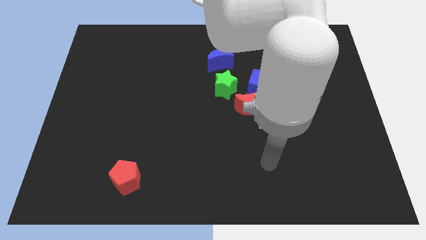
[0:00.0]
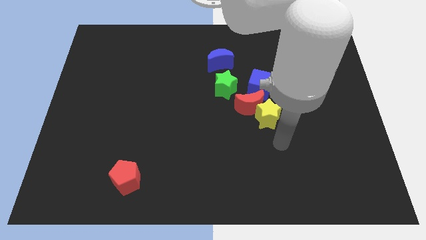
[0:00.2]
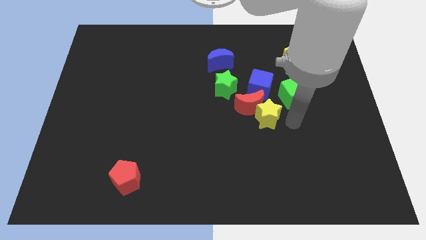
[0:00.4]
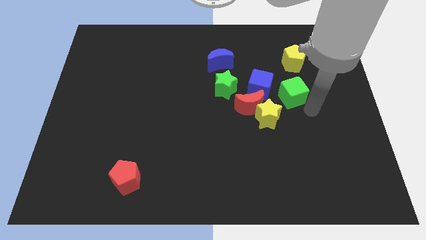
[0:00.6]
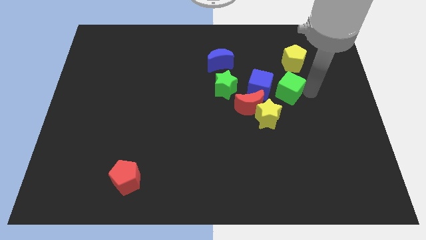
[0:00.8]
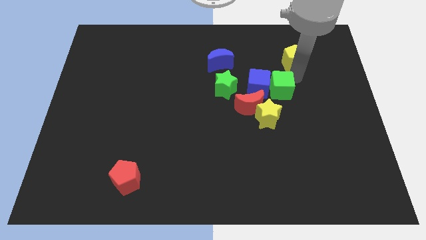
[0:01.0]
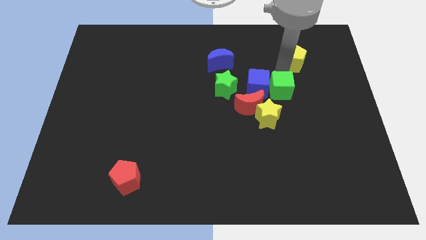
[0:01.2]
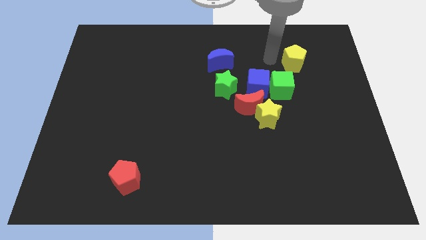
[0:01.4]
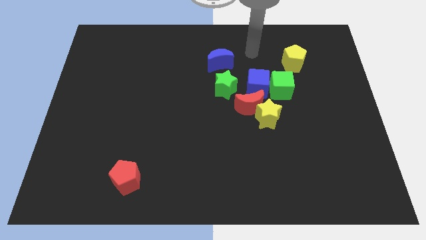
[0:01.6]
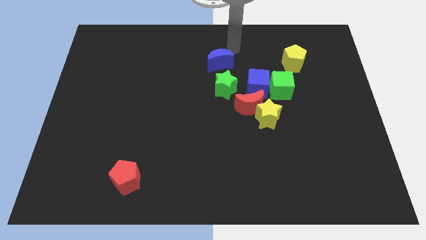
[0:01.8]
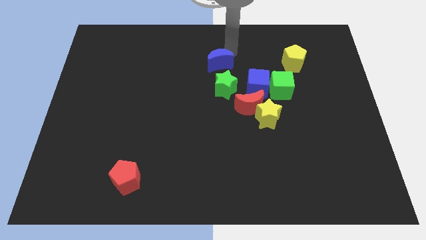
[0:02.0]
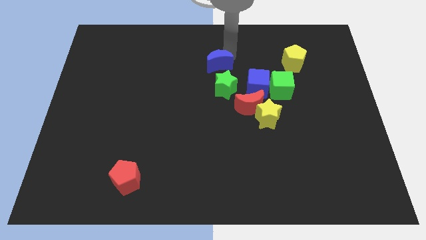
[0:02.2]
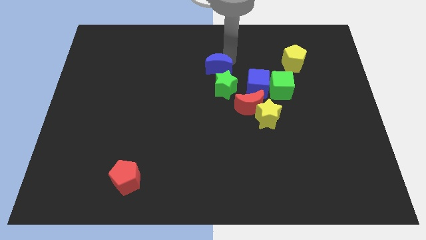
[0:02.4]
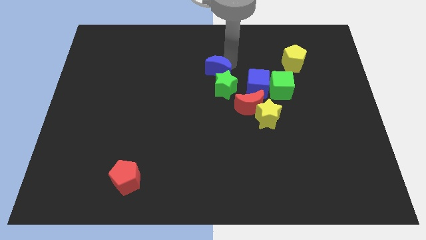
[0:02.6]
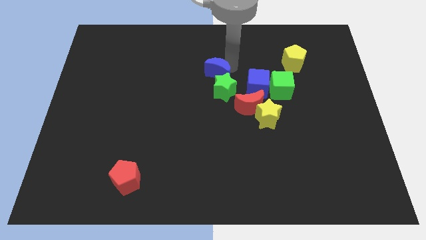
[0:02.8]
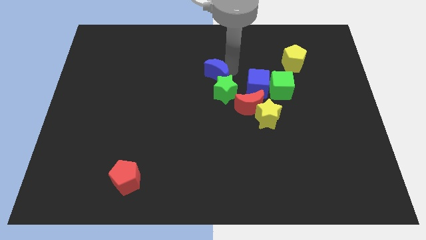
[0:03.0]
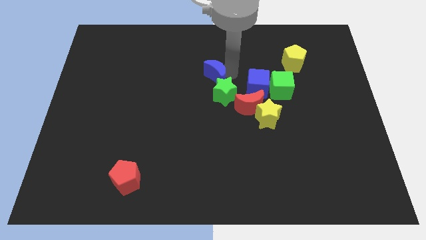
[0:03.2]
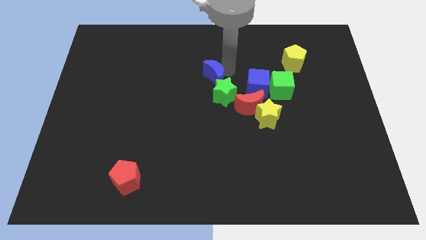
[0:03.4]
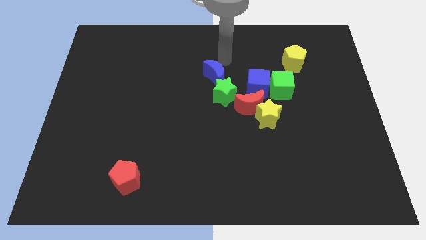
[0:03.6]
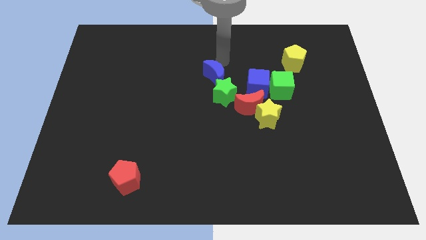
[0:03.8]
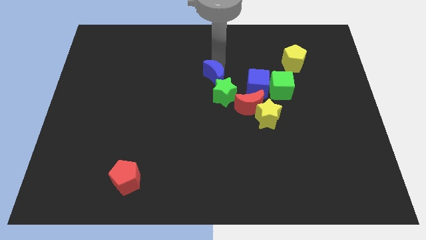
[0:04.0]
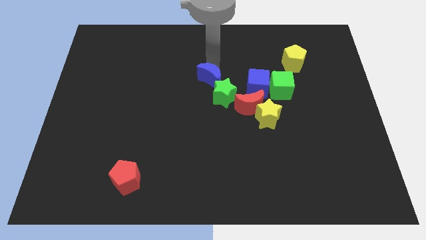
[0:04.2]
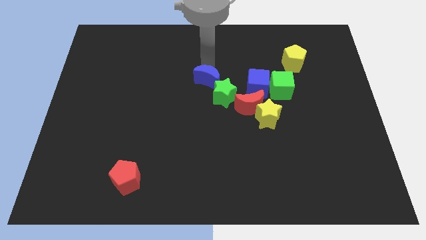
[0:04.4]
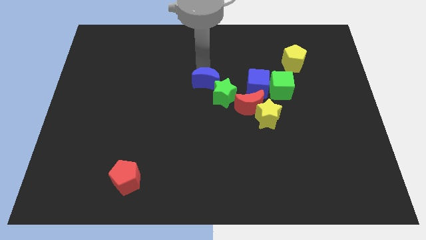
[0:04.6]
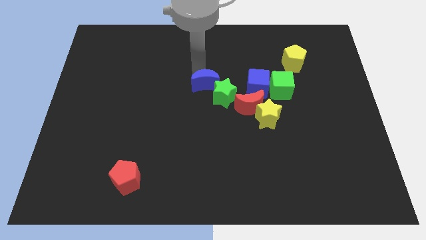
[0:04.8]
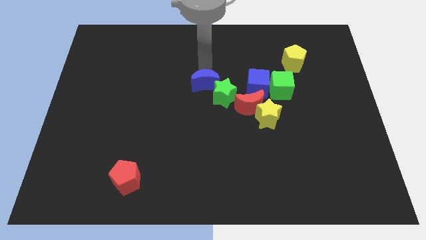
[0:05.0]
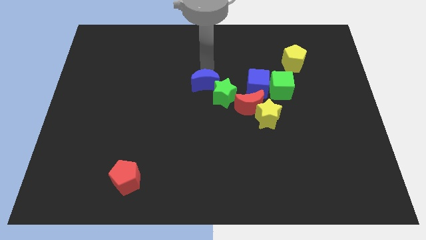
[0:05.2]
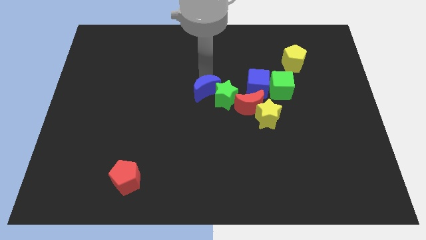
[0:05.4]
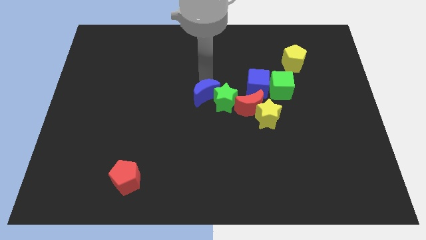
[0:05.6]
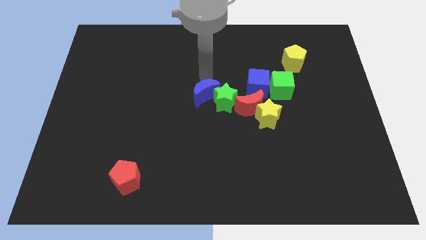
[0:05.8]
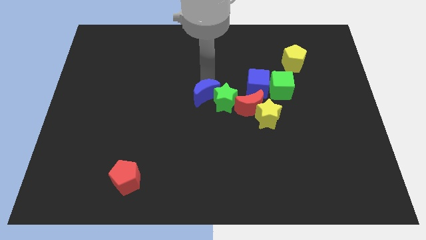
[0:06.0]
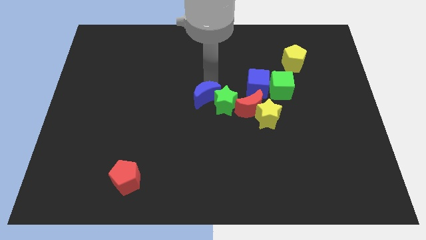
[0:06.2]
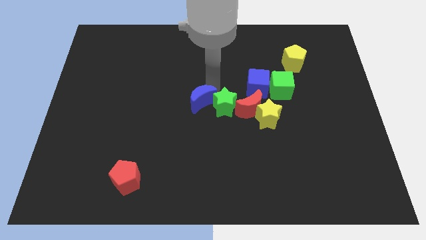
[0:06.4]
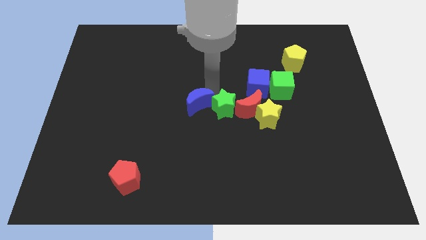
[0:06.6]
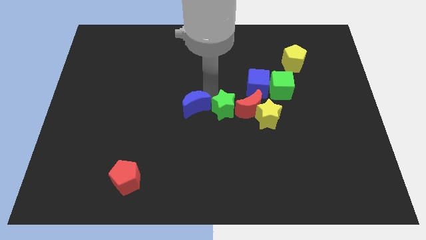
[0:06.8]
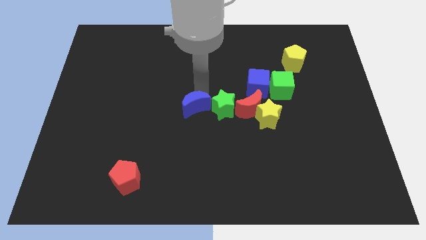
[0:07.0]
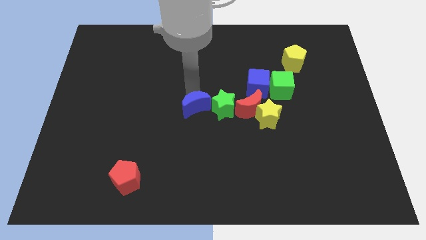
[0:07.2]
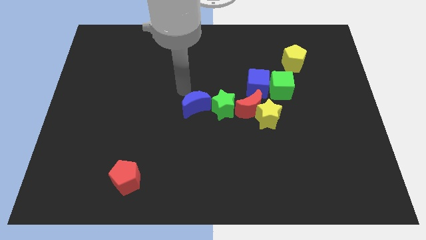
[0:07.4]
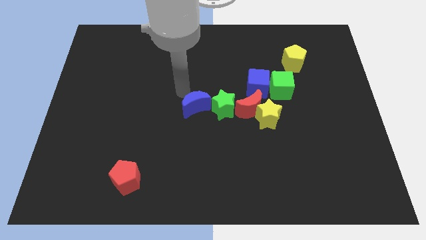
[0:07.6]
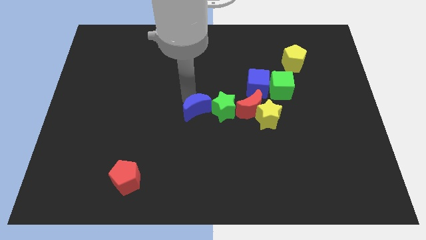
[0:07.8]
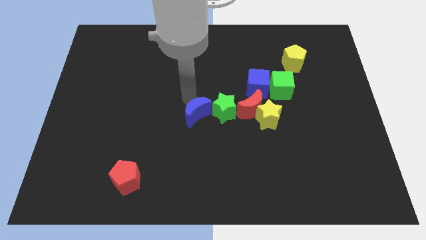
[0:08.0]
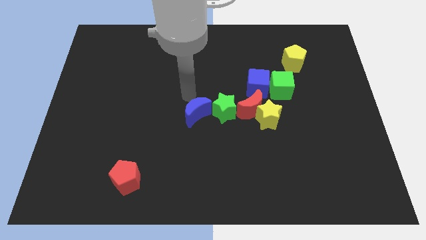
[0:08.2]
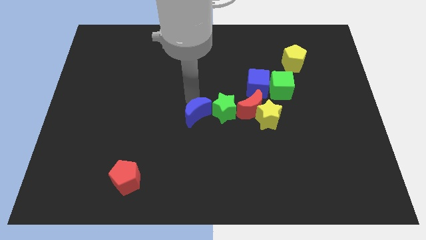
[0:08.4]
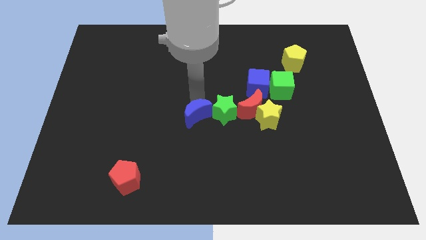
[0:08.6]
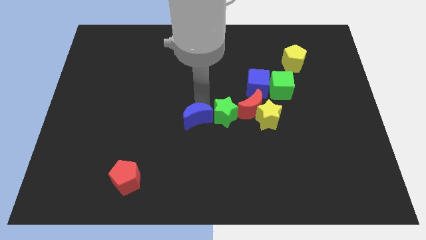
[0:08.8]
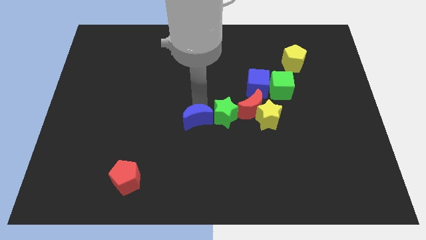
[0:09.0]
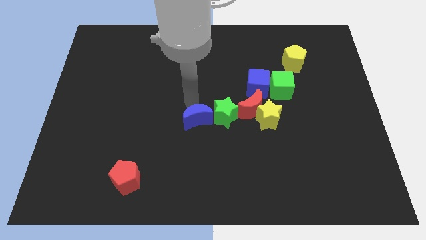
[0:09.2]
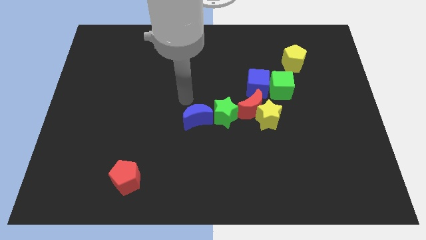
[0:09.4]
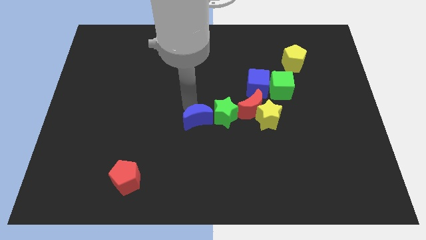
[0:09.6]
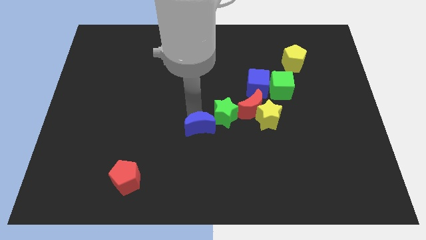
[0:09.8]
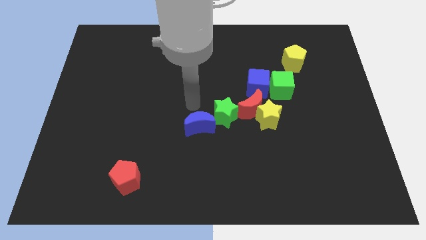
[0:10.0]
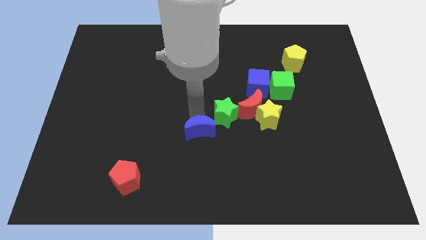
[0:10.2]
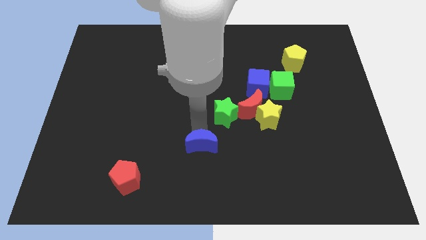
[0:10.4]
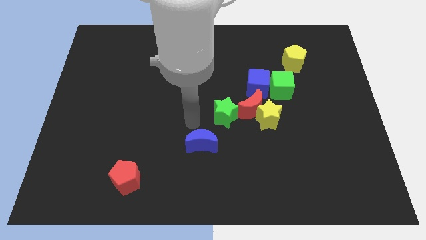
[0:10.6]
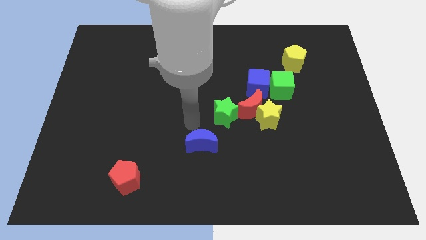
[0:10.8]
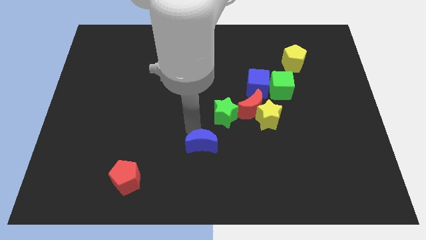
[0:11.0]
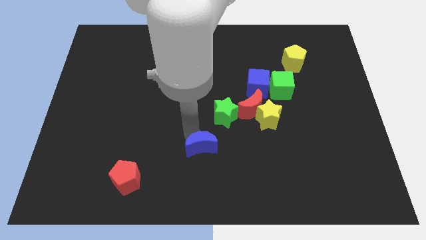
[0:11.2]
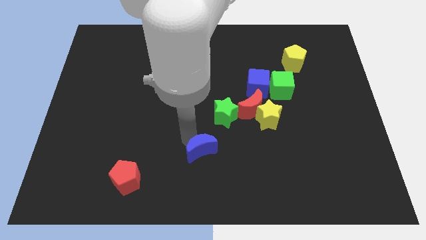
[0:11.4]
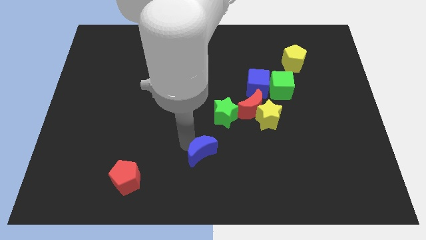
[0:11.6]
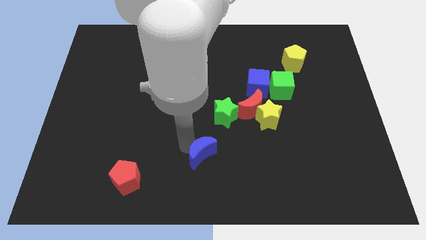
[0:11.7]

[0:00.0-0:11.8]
slide the blue moon to the bottom side
